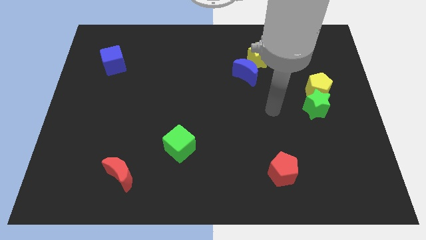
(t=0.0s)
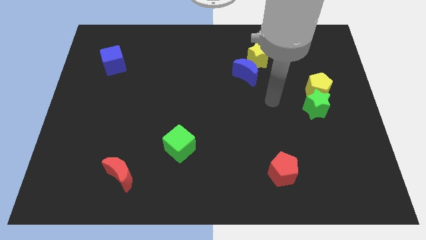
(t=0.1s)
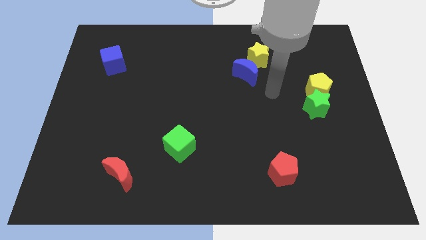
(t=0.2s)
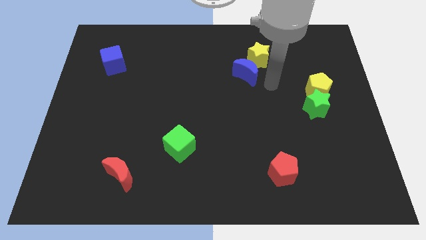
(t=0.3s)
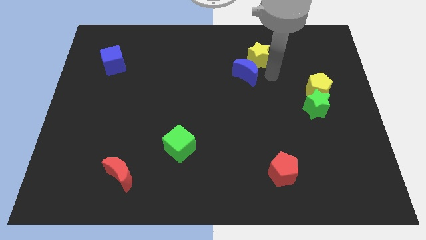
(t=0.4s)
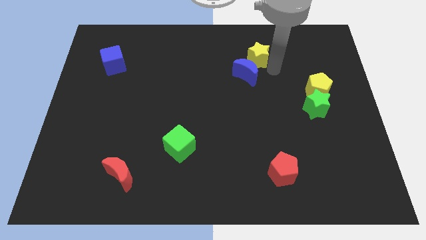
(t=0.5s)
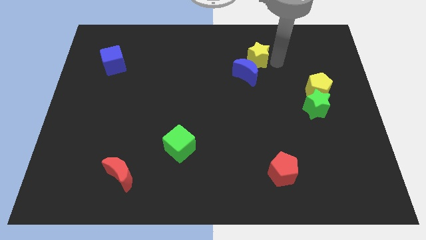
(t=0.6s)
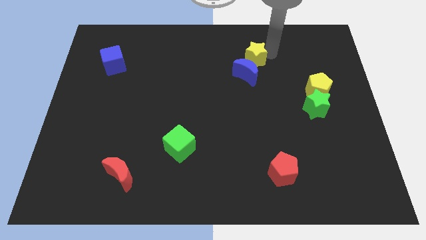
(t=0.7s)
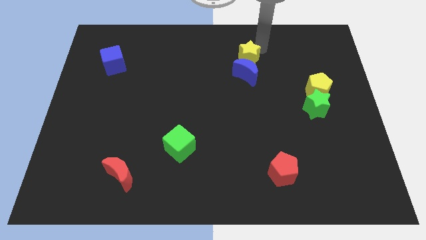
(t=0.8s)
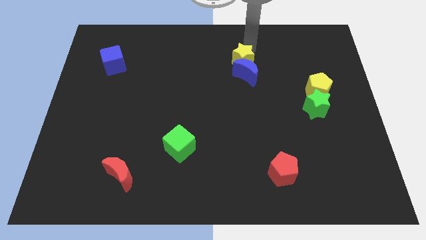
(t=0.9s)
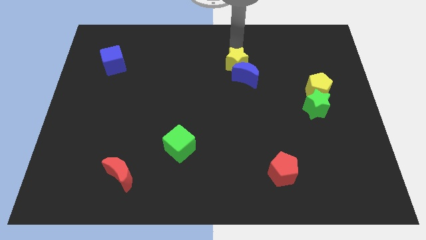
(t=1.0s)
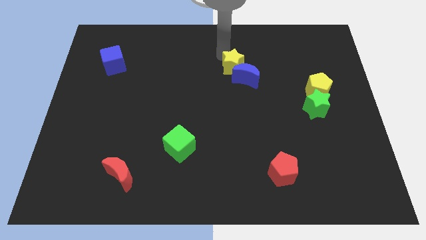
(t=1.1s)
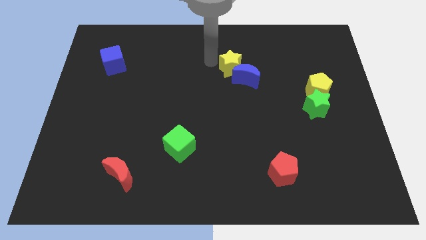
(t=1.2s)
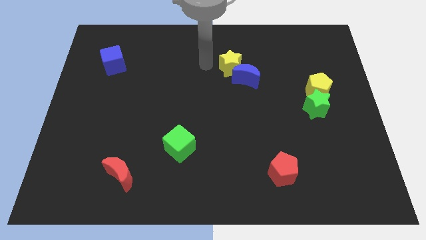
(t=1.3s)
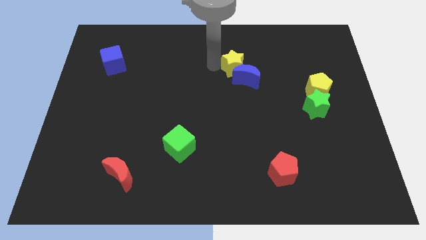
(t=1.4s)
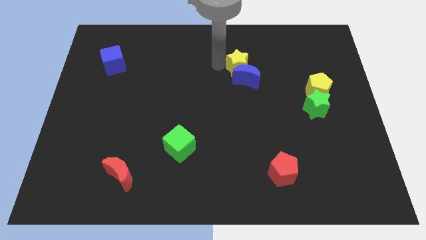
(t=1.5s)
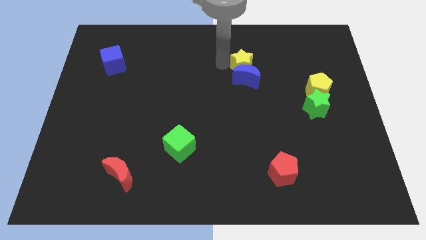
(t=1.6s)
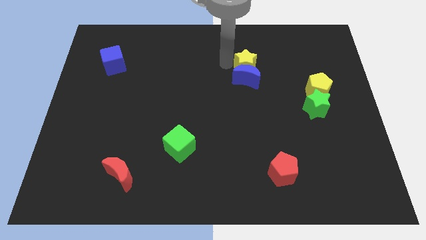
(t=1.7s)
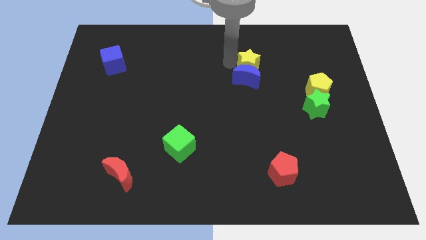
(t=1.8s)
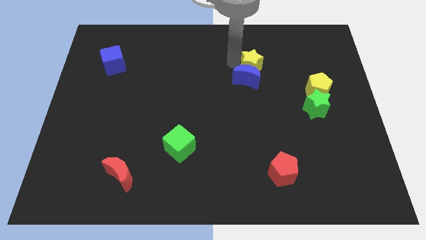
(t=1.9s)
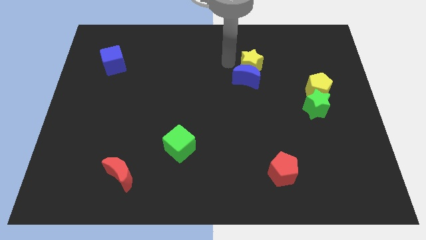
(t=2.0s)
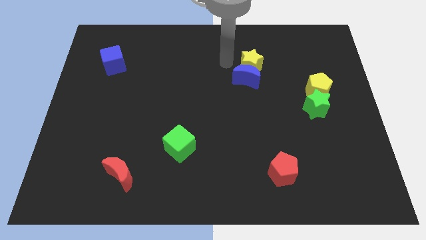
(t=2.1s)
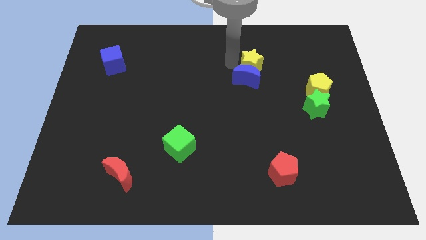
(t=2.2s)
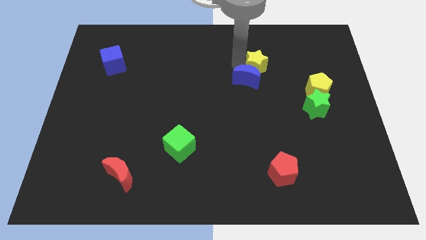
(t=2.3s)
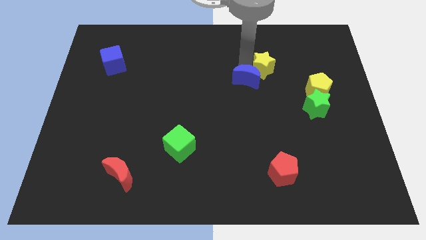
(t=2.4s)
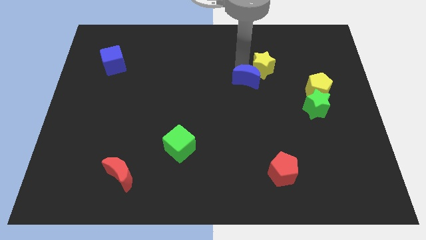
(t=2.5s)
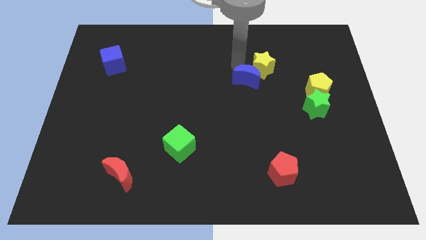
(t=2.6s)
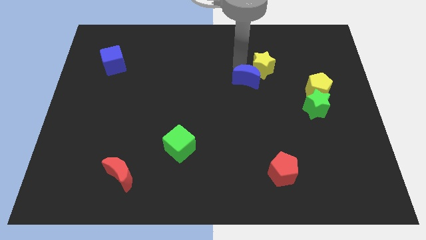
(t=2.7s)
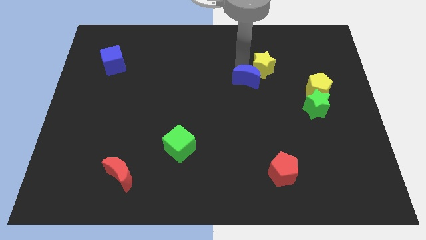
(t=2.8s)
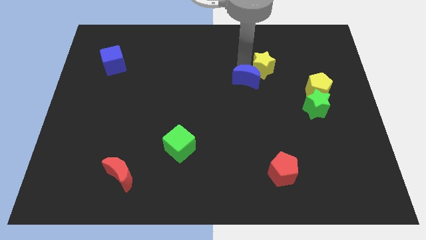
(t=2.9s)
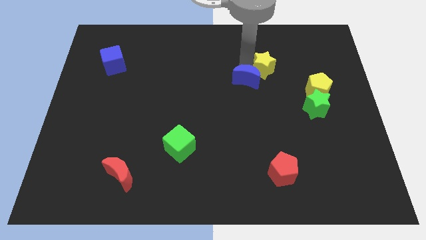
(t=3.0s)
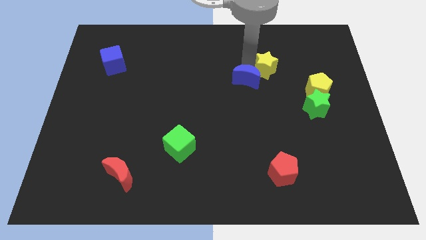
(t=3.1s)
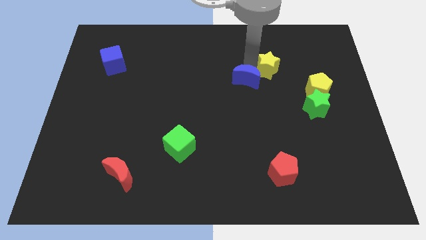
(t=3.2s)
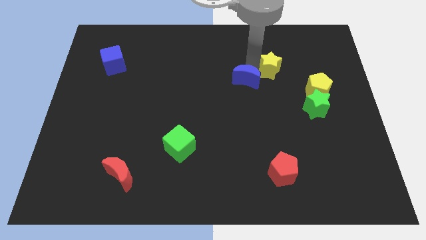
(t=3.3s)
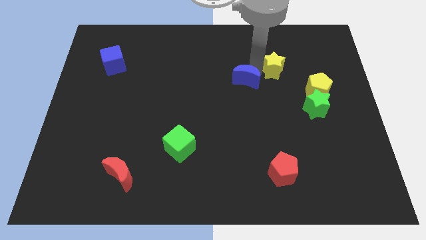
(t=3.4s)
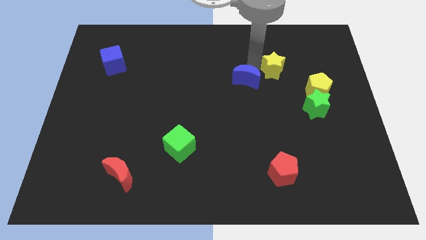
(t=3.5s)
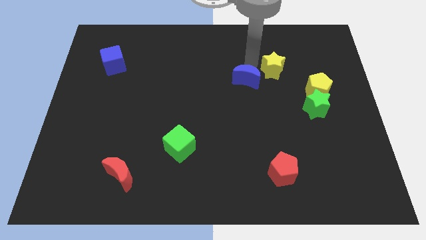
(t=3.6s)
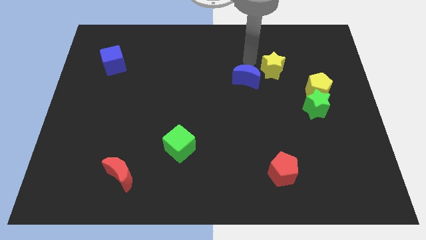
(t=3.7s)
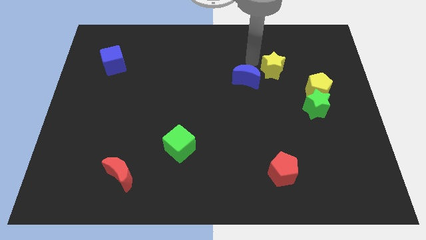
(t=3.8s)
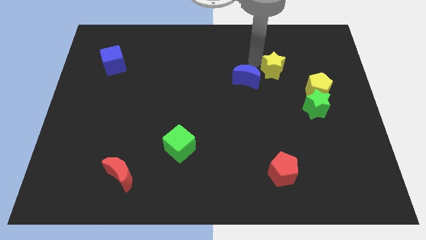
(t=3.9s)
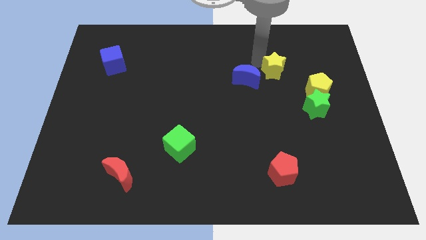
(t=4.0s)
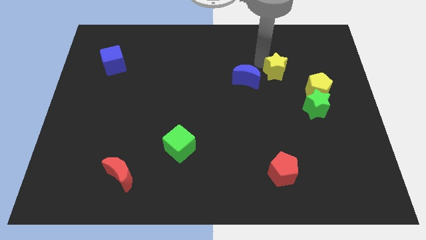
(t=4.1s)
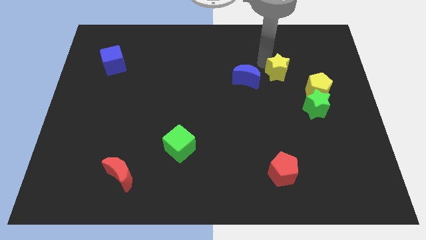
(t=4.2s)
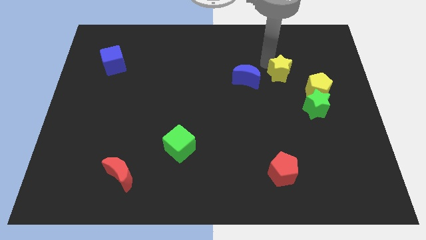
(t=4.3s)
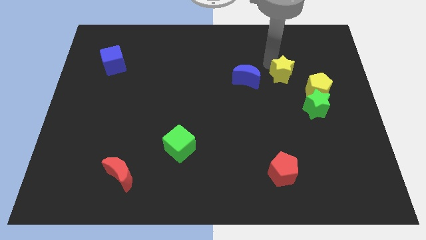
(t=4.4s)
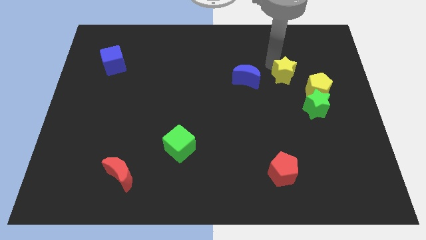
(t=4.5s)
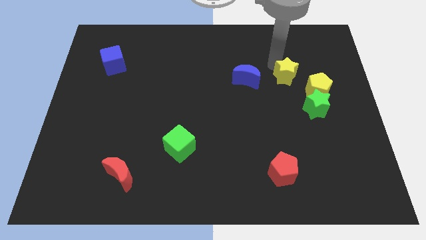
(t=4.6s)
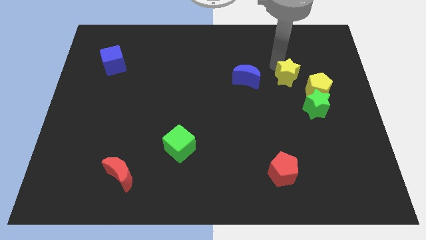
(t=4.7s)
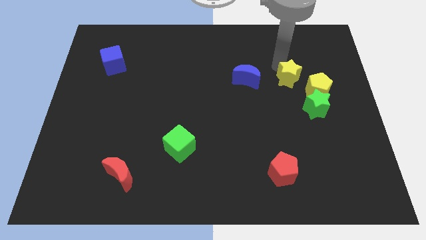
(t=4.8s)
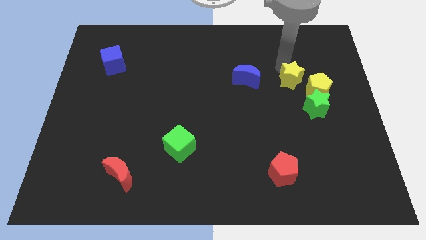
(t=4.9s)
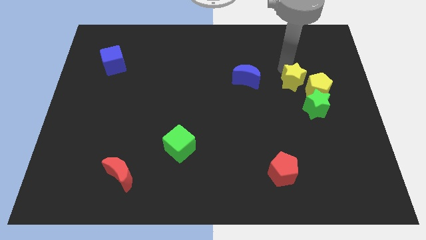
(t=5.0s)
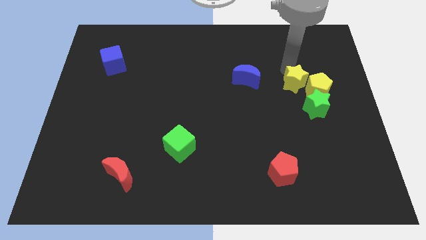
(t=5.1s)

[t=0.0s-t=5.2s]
move the yellow star close to the yellow pentagon

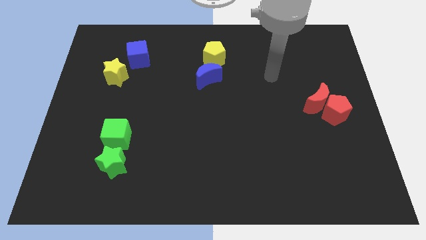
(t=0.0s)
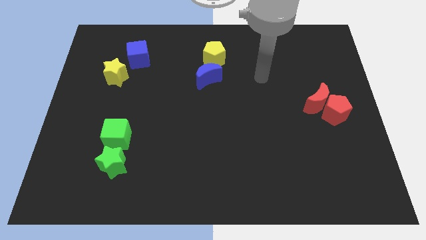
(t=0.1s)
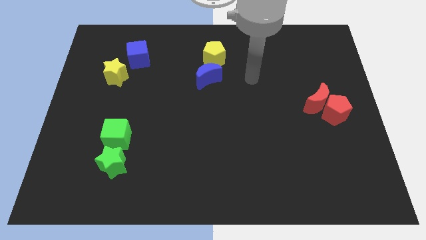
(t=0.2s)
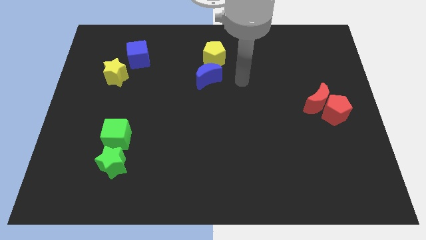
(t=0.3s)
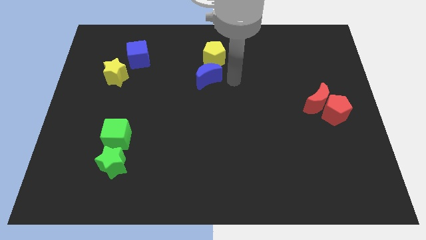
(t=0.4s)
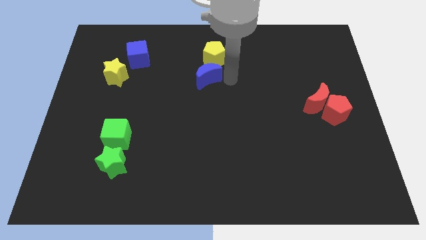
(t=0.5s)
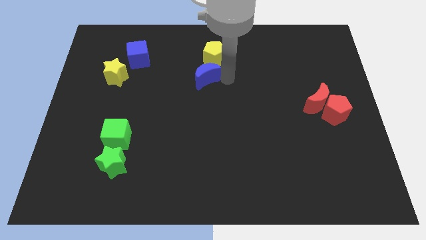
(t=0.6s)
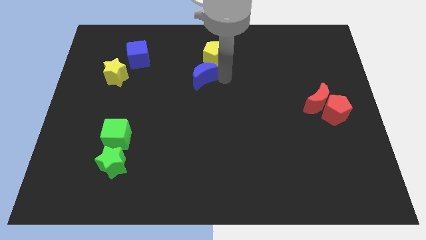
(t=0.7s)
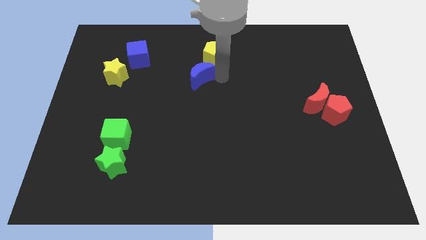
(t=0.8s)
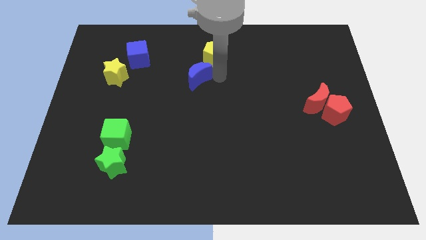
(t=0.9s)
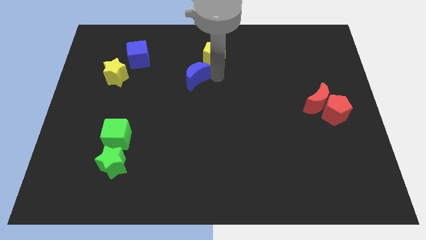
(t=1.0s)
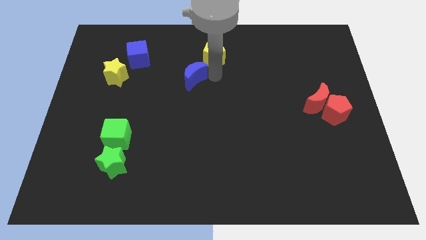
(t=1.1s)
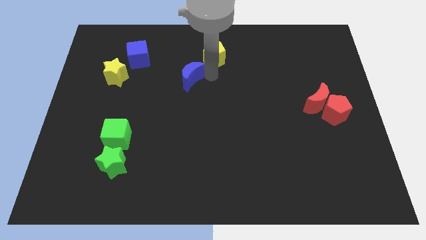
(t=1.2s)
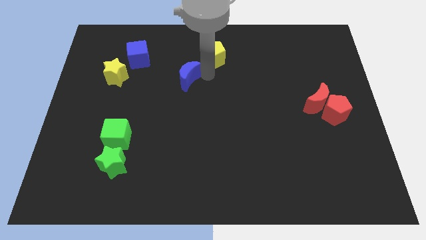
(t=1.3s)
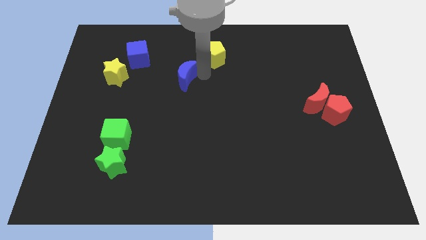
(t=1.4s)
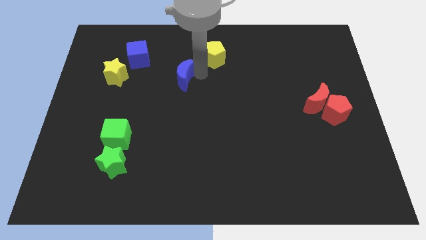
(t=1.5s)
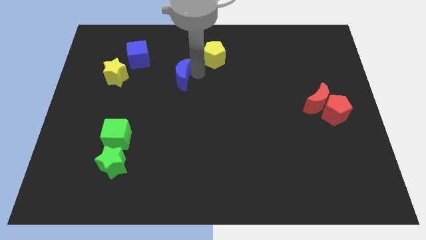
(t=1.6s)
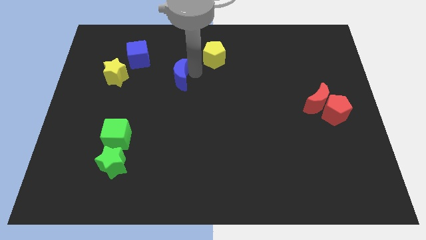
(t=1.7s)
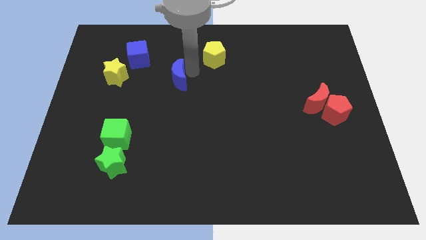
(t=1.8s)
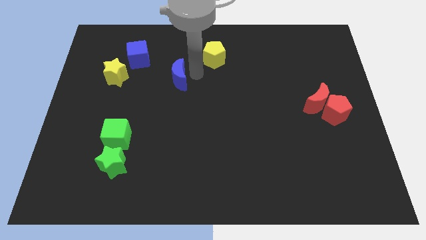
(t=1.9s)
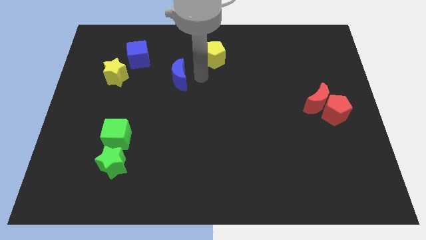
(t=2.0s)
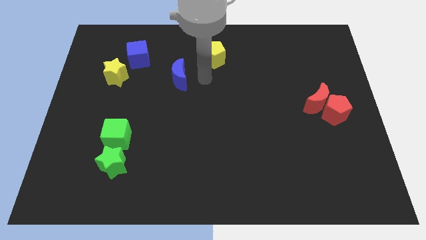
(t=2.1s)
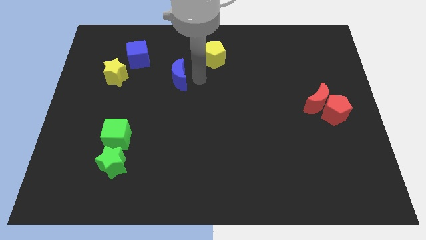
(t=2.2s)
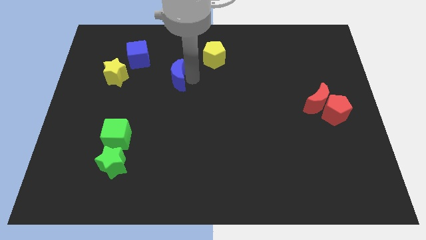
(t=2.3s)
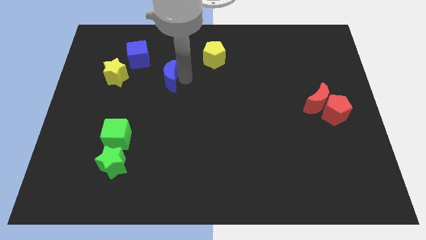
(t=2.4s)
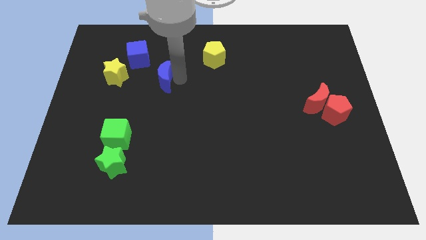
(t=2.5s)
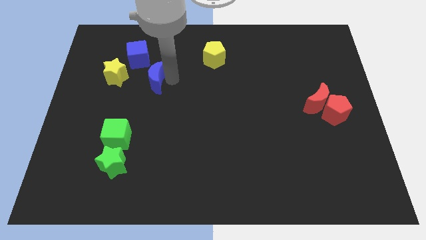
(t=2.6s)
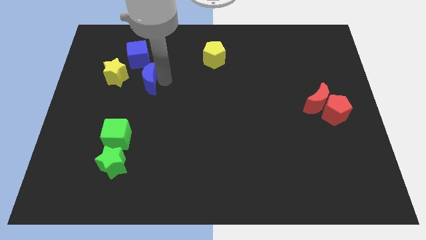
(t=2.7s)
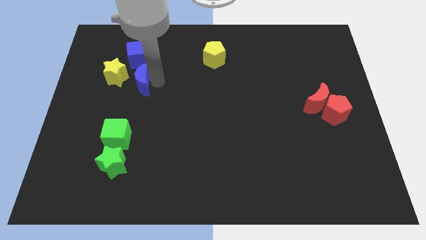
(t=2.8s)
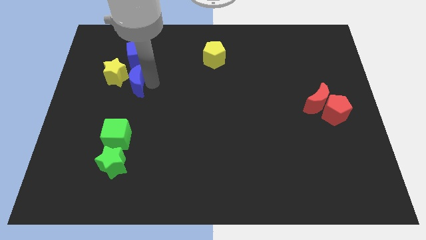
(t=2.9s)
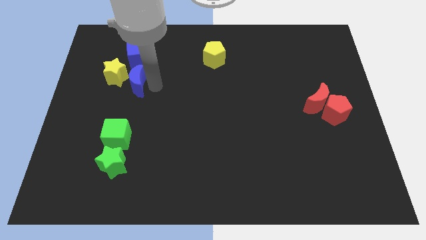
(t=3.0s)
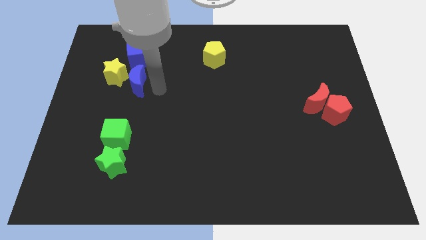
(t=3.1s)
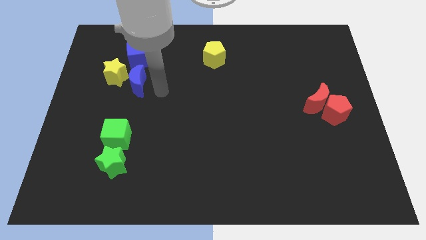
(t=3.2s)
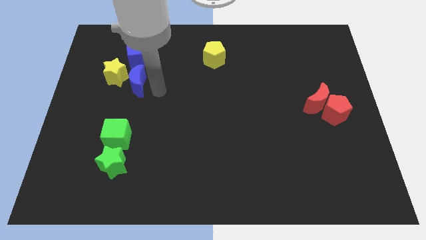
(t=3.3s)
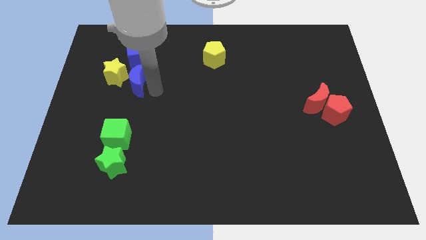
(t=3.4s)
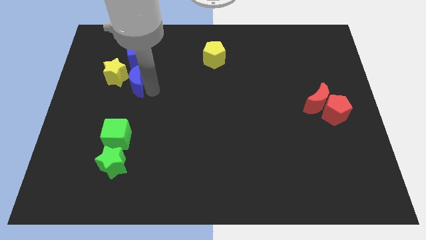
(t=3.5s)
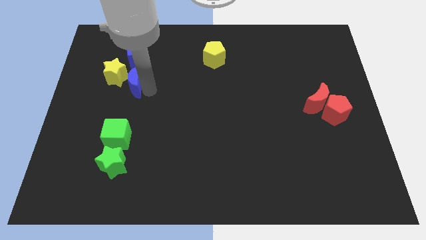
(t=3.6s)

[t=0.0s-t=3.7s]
slide the blue moon towards the yellow star
